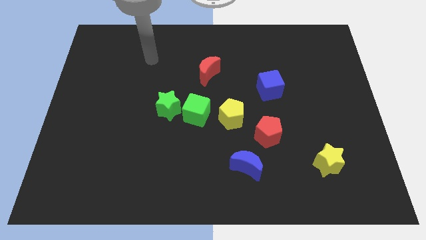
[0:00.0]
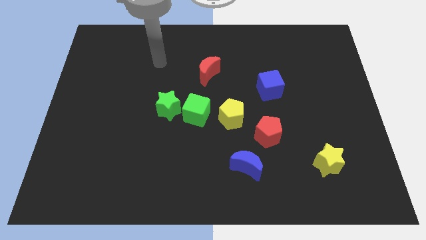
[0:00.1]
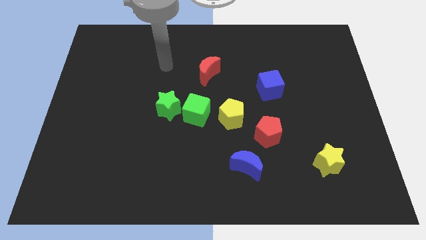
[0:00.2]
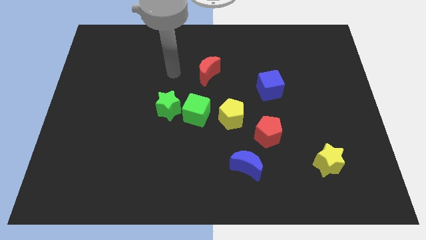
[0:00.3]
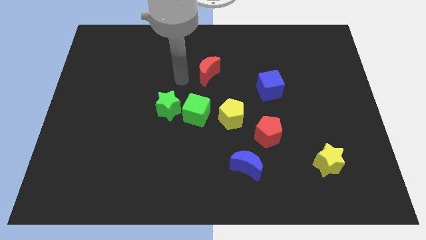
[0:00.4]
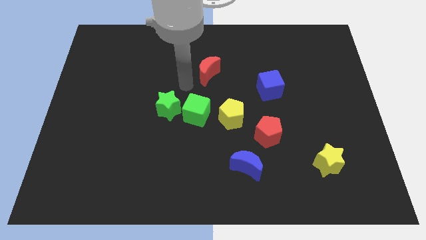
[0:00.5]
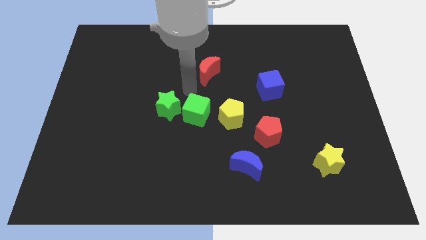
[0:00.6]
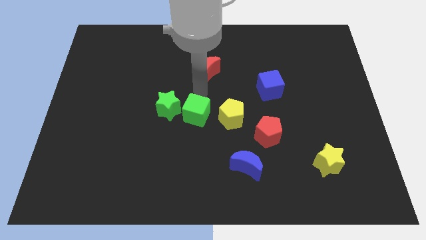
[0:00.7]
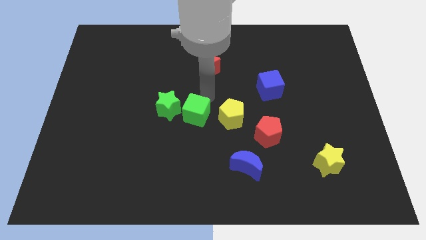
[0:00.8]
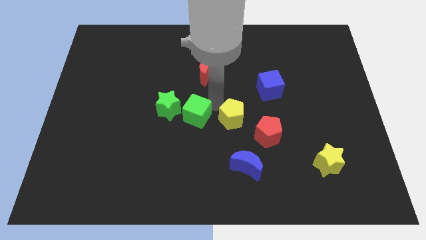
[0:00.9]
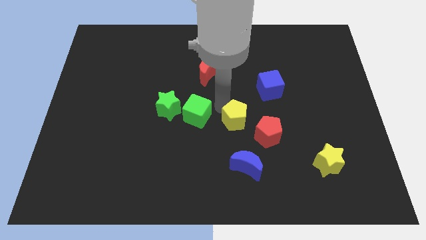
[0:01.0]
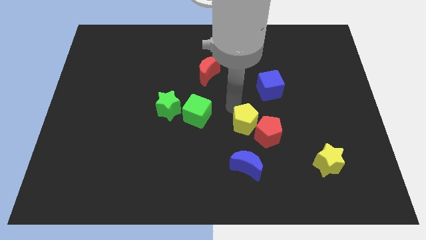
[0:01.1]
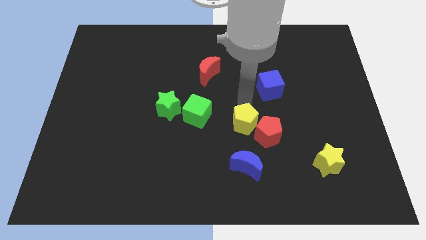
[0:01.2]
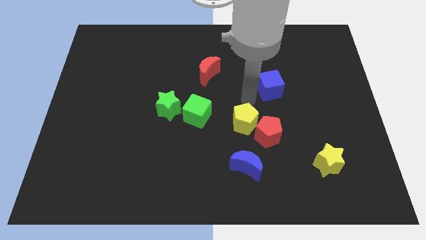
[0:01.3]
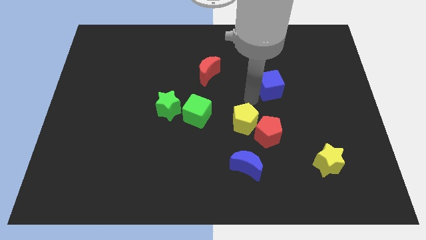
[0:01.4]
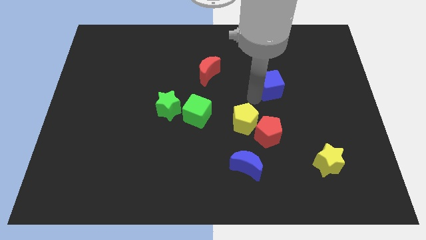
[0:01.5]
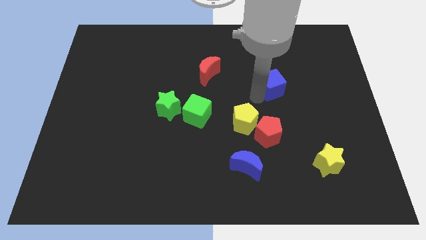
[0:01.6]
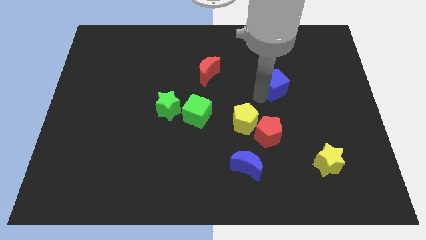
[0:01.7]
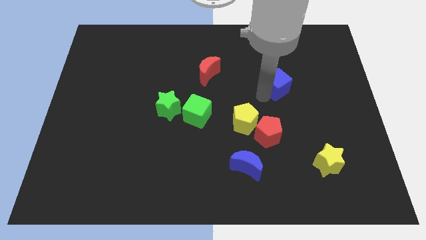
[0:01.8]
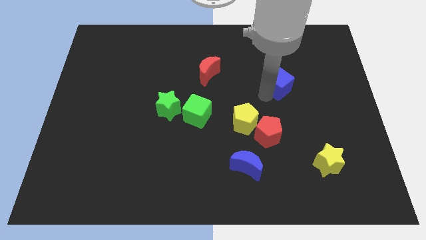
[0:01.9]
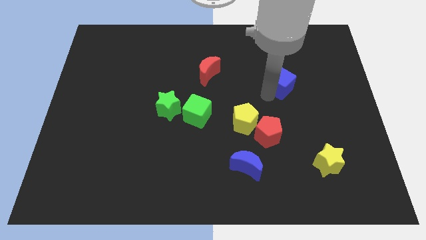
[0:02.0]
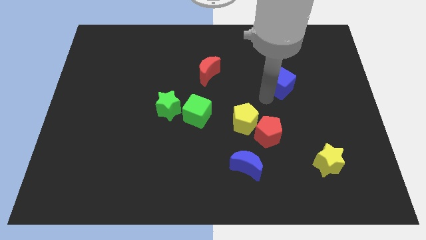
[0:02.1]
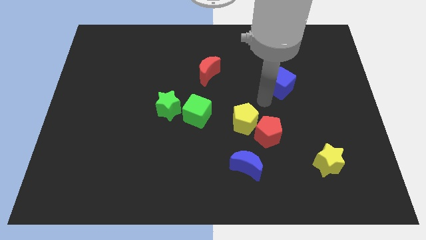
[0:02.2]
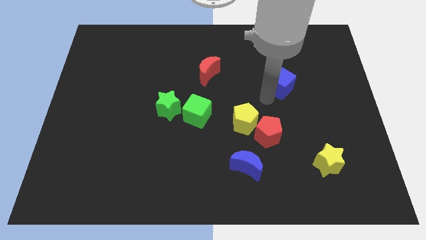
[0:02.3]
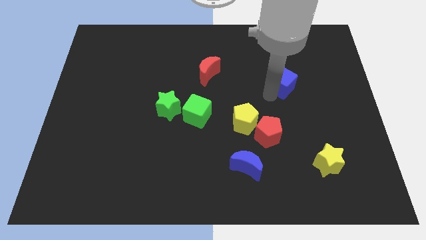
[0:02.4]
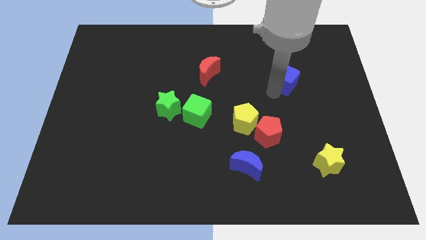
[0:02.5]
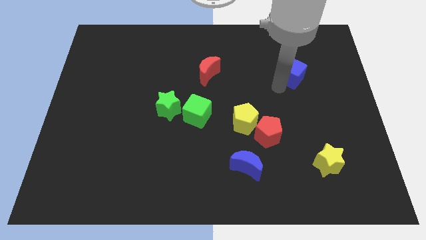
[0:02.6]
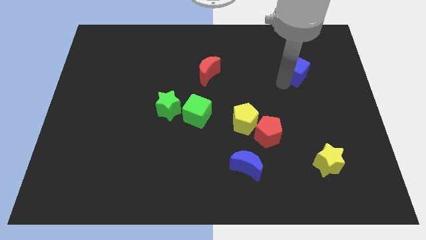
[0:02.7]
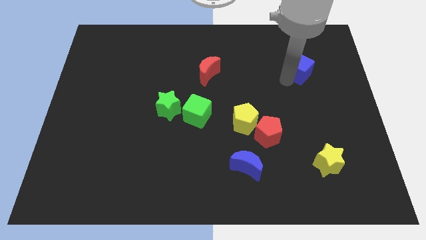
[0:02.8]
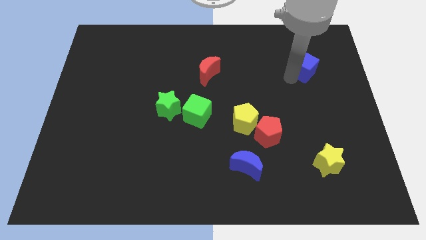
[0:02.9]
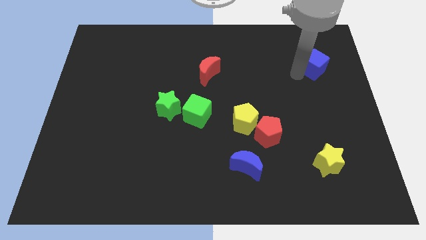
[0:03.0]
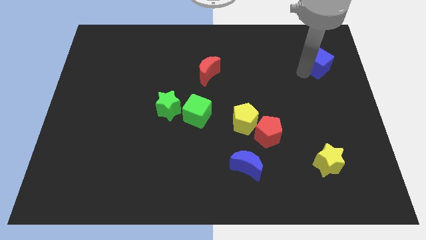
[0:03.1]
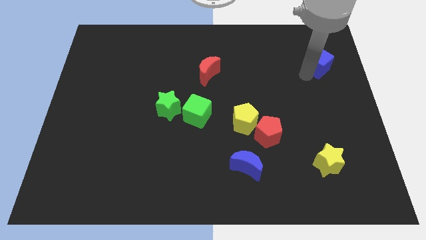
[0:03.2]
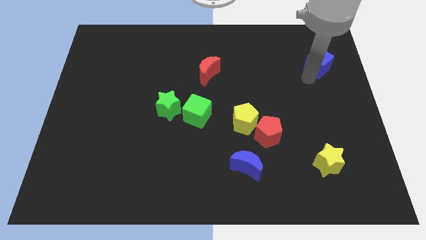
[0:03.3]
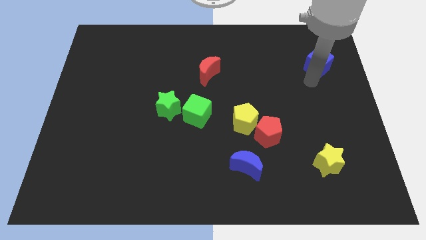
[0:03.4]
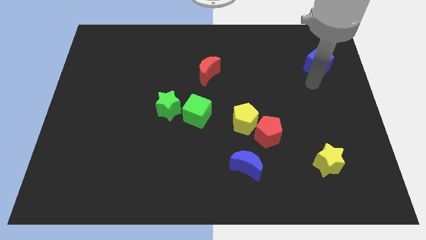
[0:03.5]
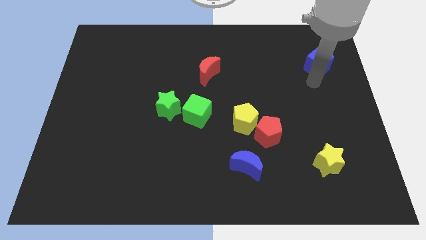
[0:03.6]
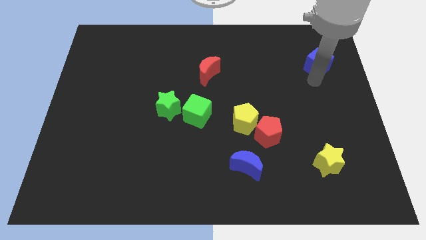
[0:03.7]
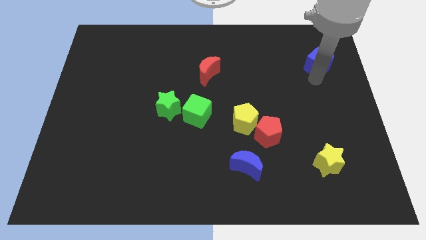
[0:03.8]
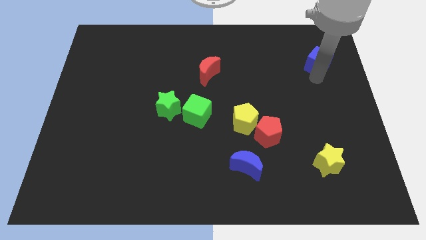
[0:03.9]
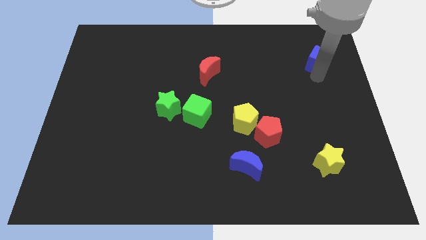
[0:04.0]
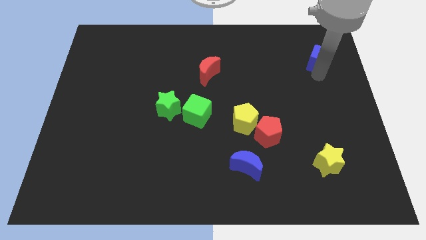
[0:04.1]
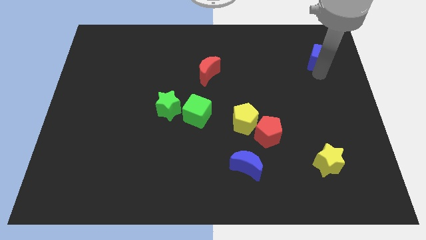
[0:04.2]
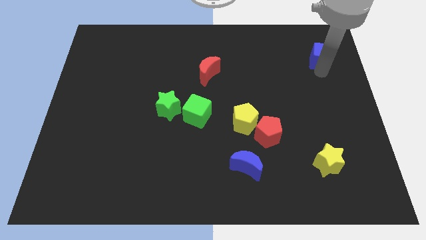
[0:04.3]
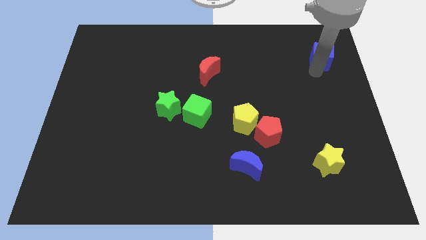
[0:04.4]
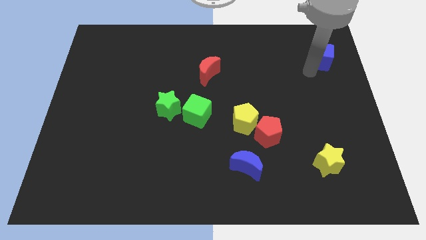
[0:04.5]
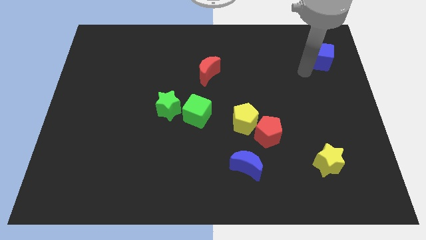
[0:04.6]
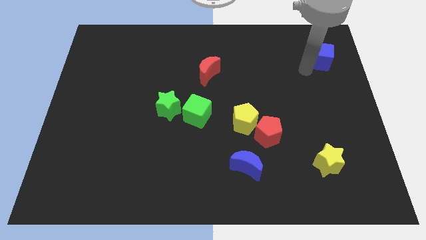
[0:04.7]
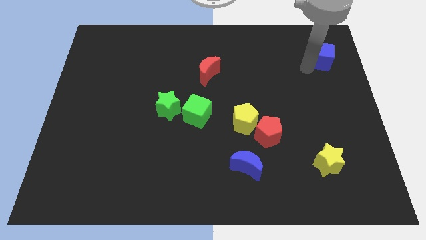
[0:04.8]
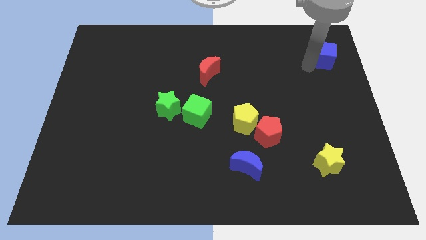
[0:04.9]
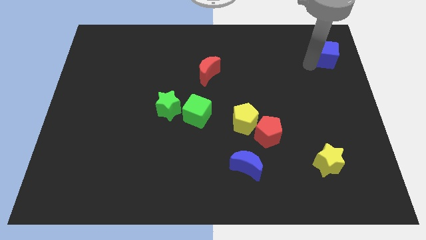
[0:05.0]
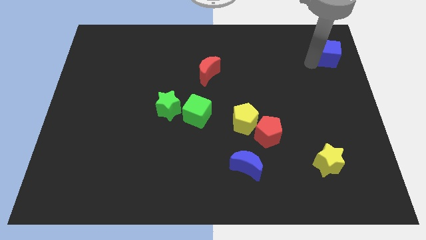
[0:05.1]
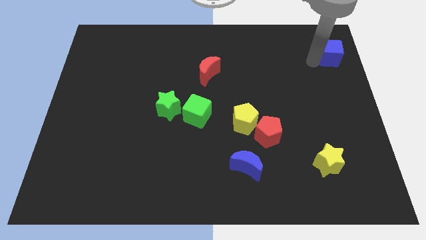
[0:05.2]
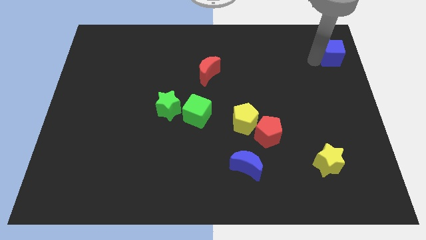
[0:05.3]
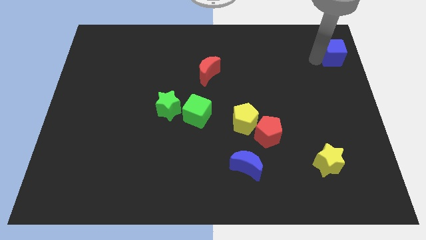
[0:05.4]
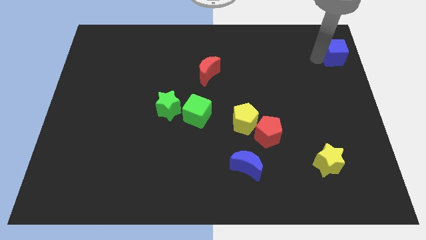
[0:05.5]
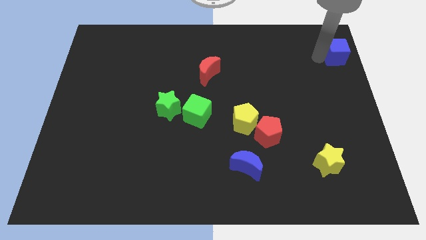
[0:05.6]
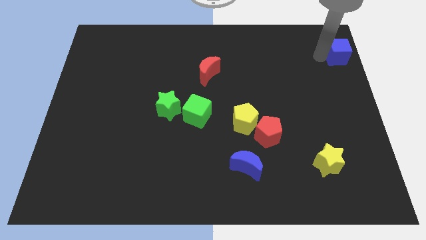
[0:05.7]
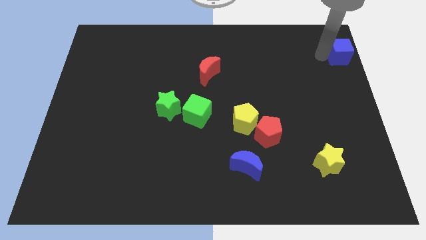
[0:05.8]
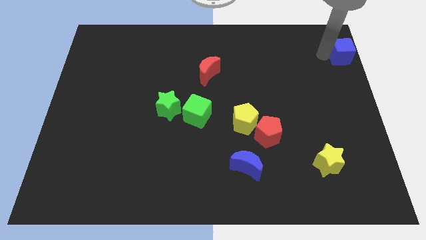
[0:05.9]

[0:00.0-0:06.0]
move the blue cube to the upper right corner

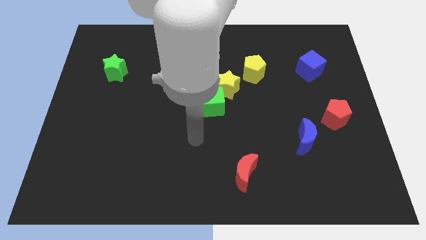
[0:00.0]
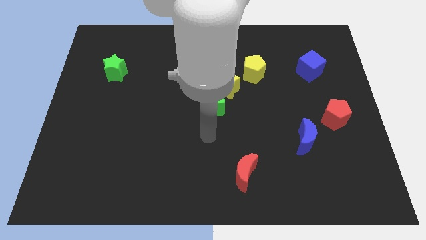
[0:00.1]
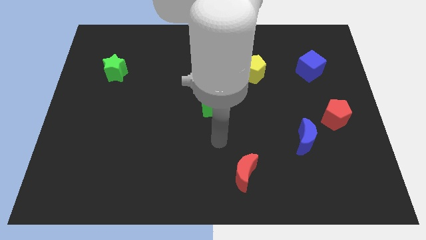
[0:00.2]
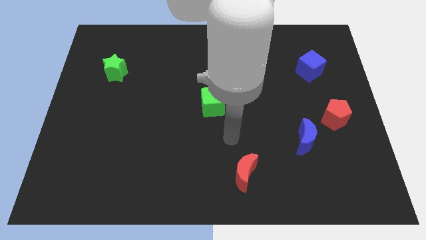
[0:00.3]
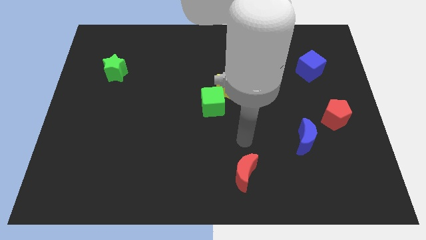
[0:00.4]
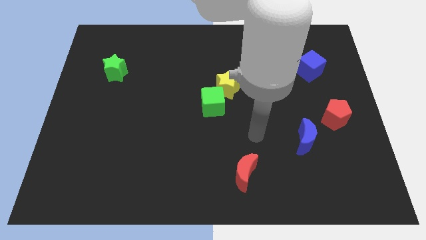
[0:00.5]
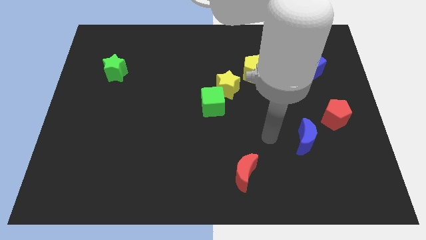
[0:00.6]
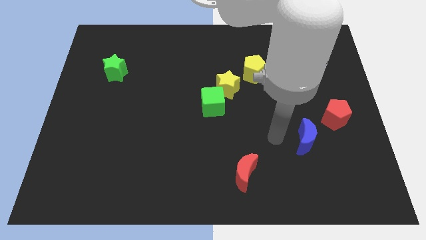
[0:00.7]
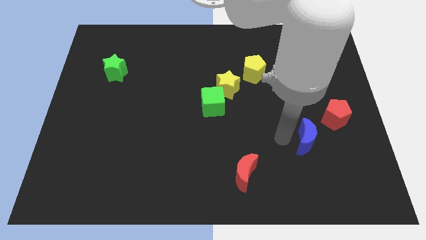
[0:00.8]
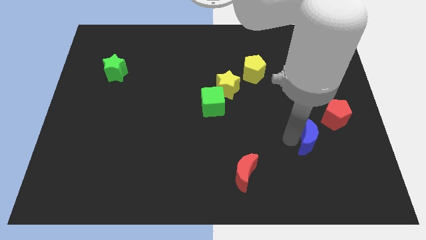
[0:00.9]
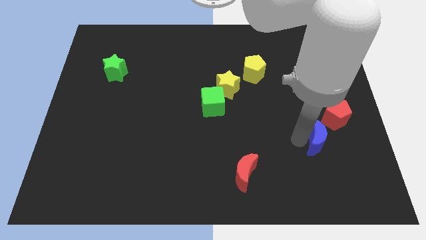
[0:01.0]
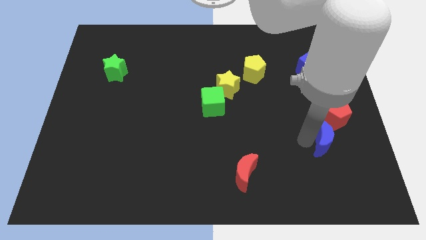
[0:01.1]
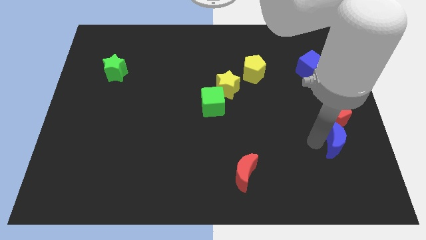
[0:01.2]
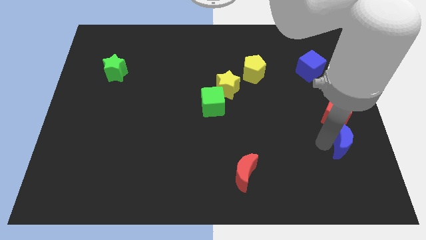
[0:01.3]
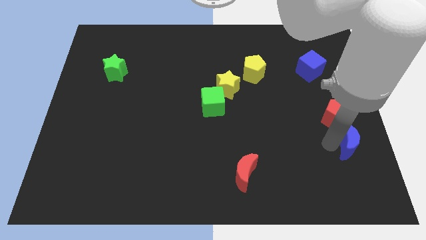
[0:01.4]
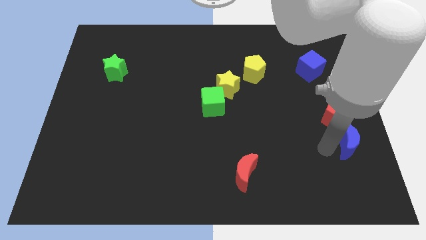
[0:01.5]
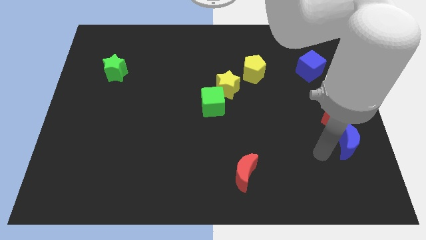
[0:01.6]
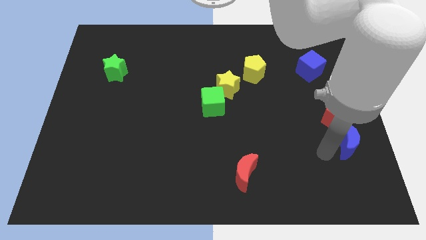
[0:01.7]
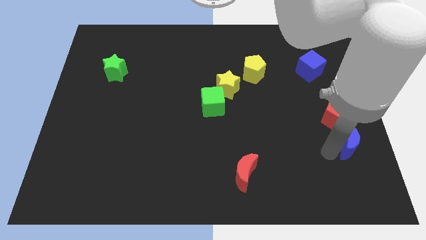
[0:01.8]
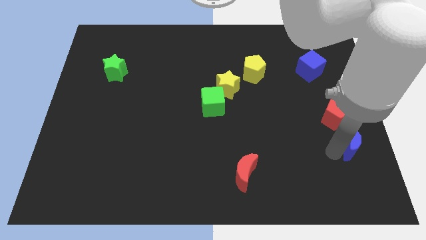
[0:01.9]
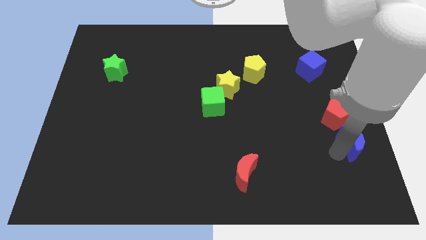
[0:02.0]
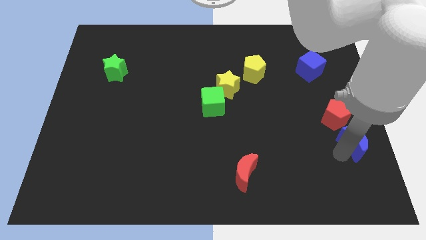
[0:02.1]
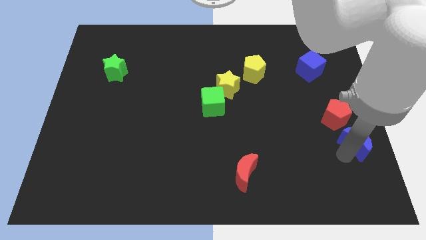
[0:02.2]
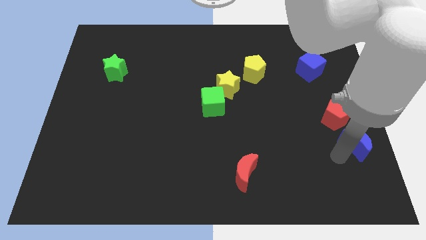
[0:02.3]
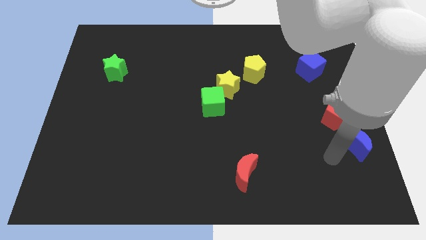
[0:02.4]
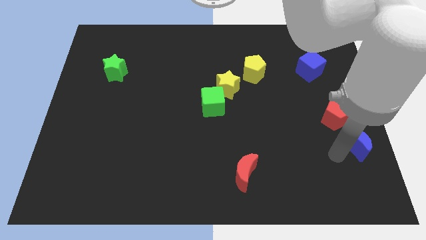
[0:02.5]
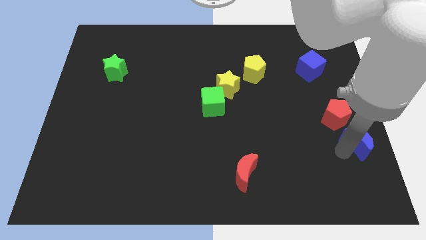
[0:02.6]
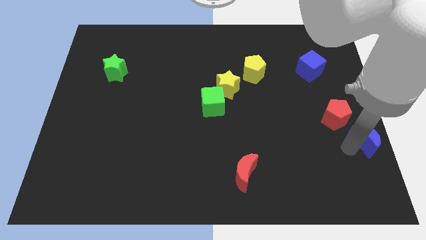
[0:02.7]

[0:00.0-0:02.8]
move the blue moon to the center right
